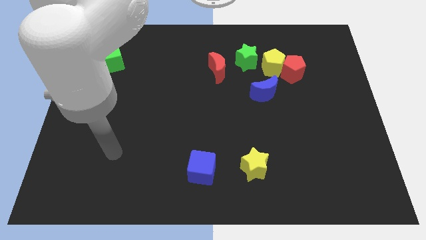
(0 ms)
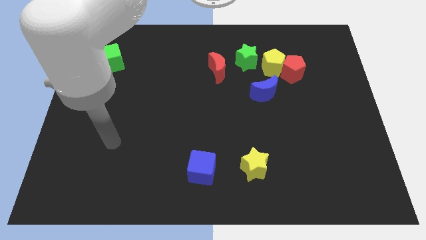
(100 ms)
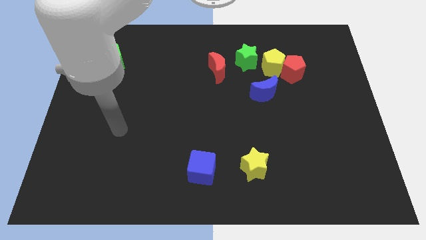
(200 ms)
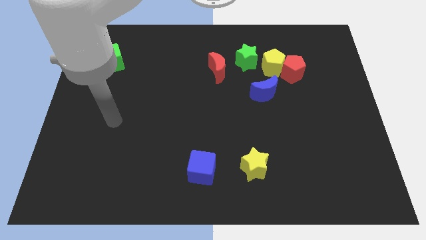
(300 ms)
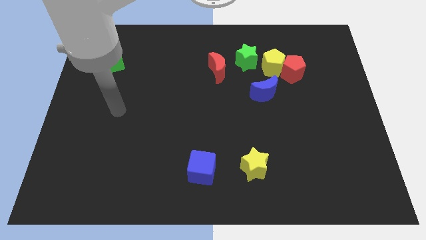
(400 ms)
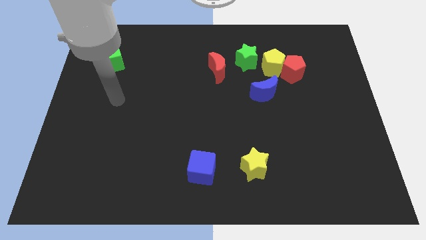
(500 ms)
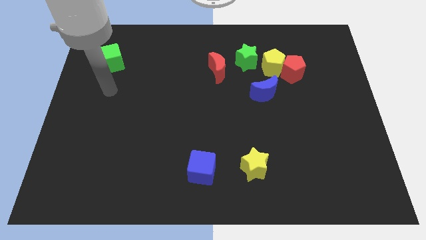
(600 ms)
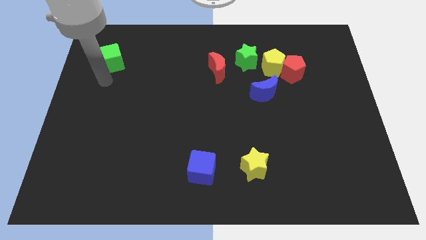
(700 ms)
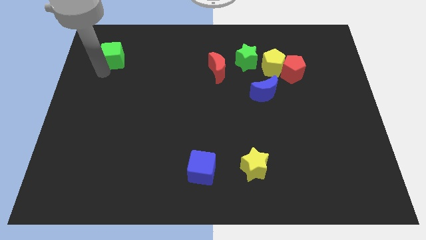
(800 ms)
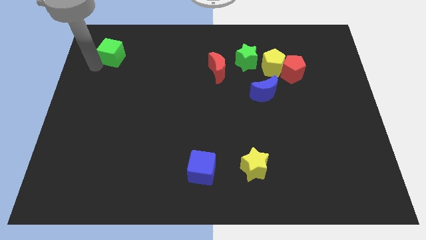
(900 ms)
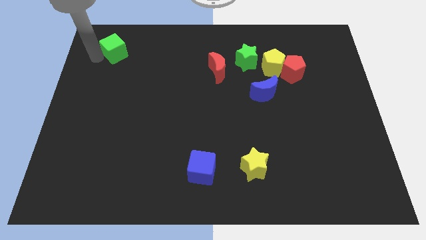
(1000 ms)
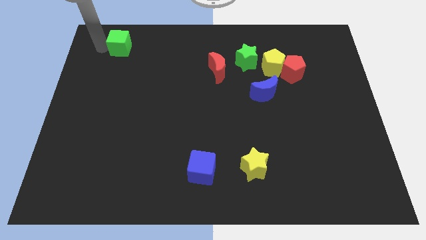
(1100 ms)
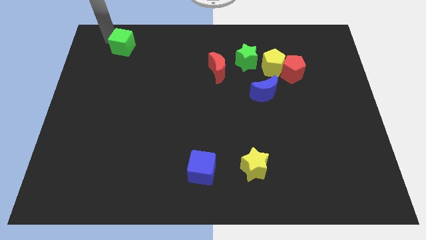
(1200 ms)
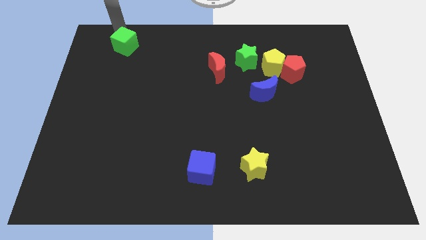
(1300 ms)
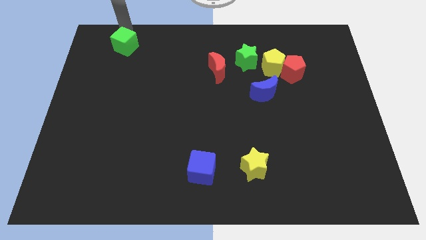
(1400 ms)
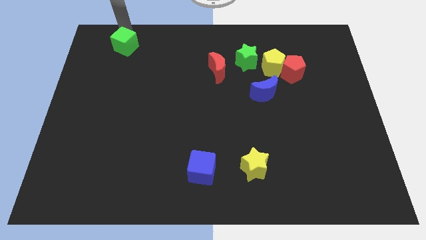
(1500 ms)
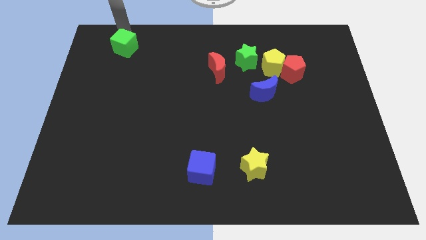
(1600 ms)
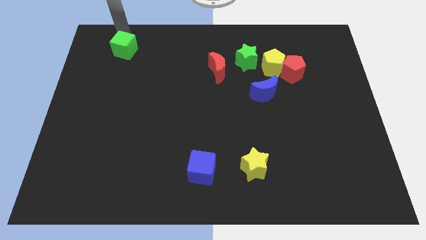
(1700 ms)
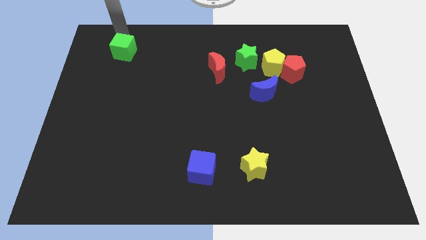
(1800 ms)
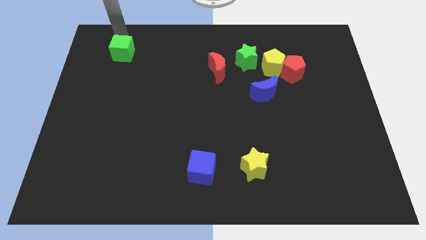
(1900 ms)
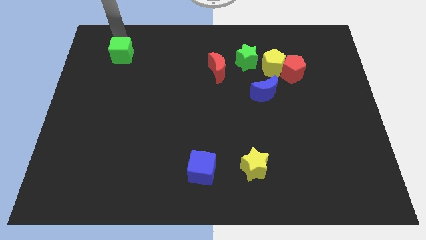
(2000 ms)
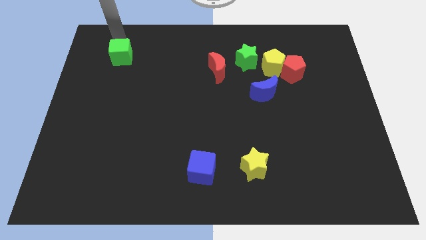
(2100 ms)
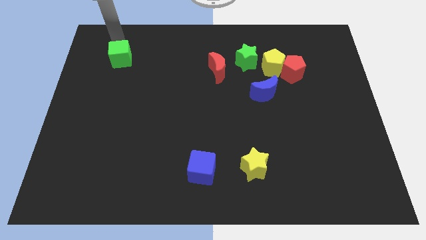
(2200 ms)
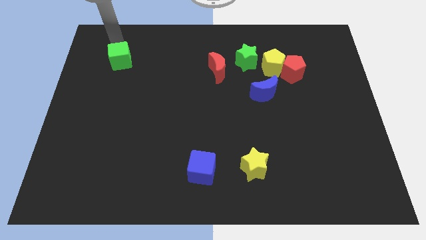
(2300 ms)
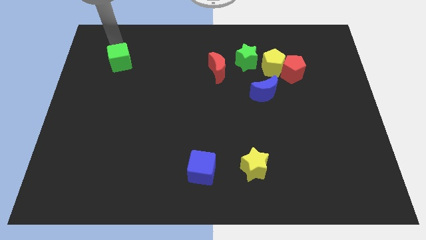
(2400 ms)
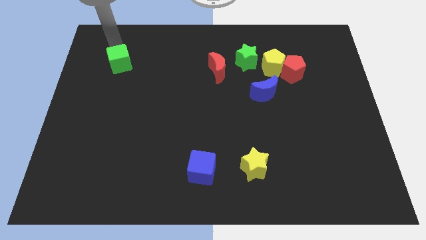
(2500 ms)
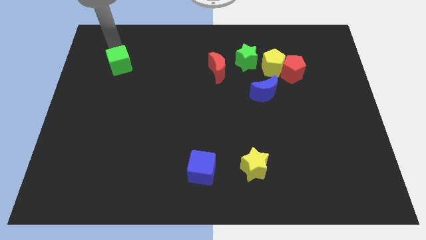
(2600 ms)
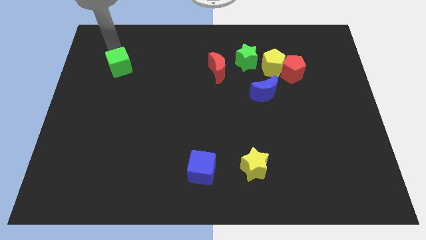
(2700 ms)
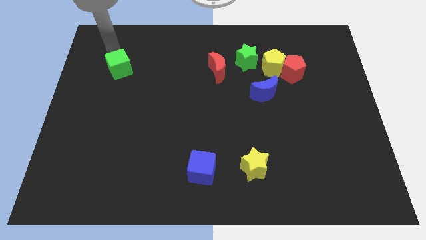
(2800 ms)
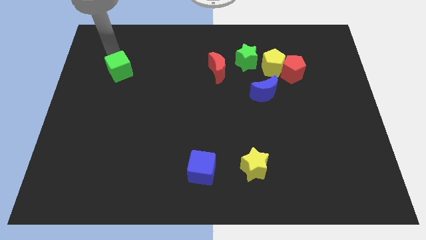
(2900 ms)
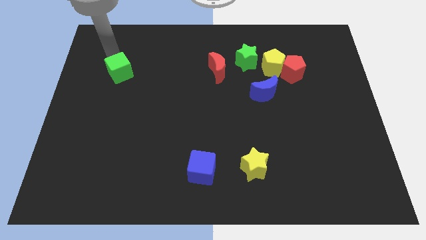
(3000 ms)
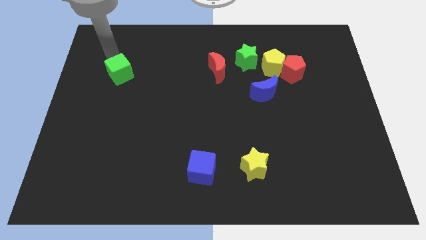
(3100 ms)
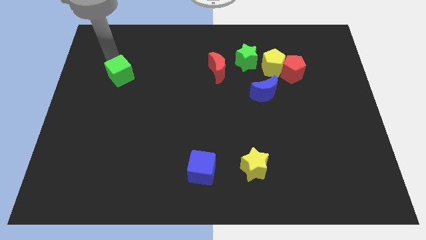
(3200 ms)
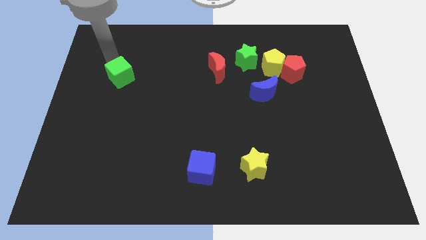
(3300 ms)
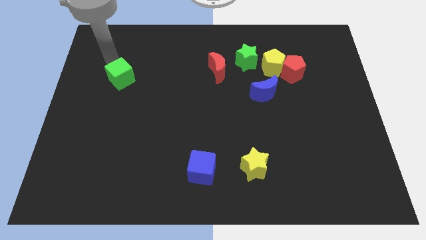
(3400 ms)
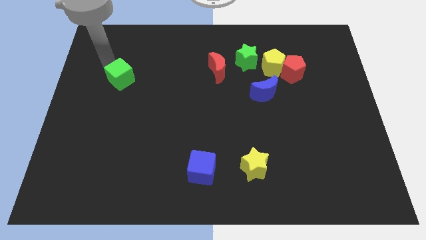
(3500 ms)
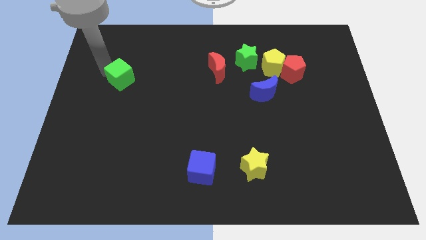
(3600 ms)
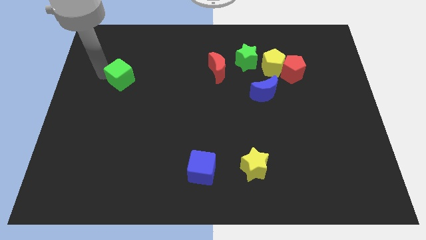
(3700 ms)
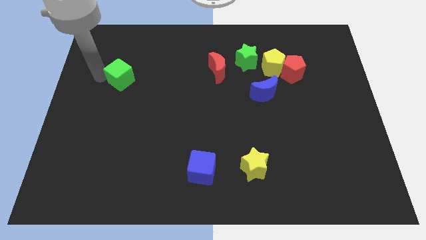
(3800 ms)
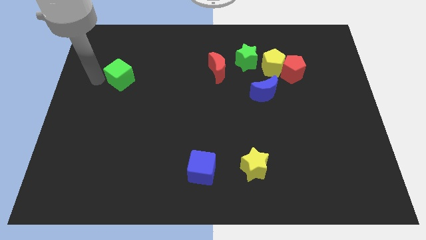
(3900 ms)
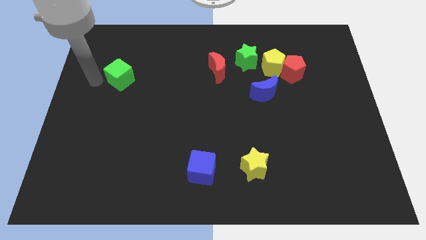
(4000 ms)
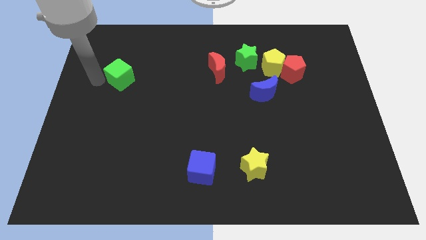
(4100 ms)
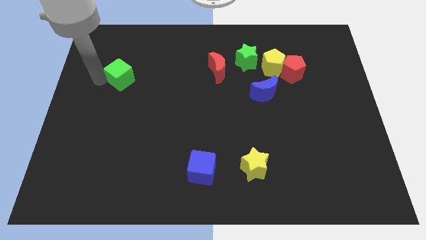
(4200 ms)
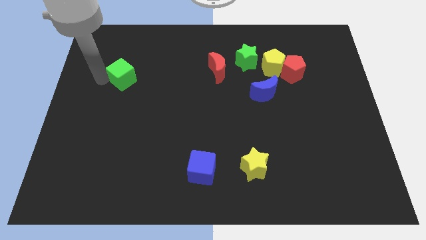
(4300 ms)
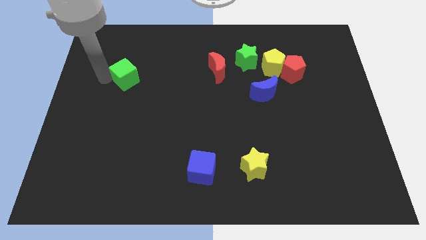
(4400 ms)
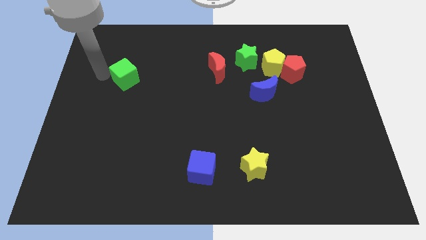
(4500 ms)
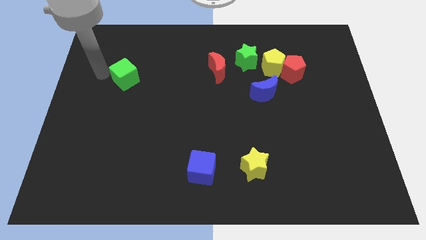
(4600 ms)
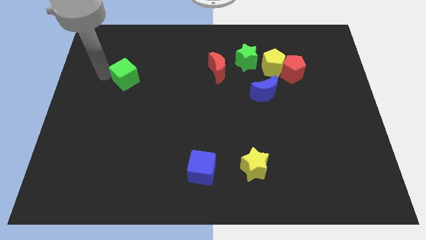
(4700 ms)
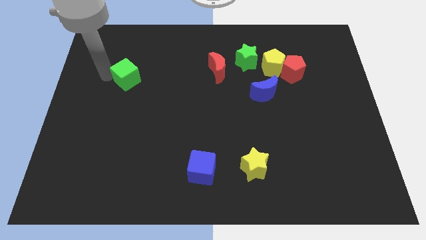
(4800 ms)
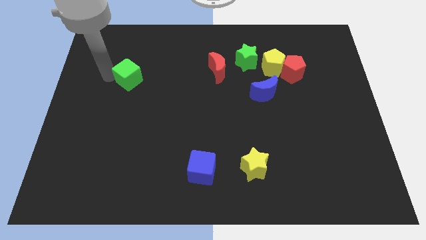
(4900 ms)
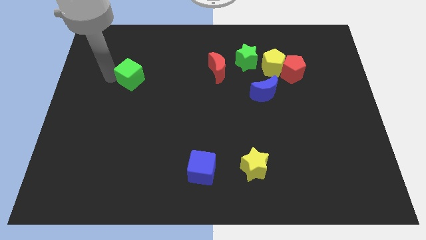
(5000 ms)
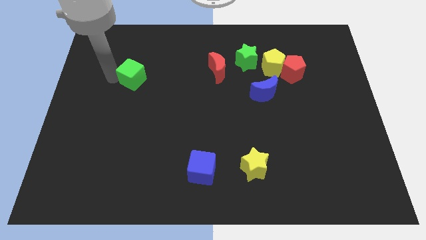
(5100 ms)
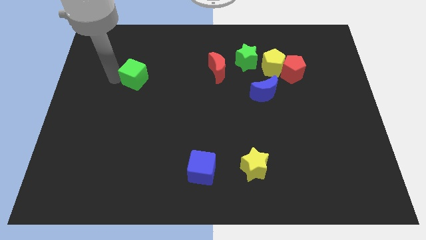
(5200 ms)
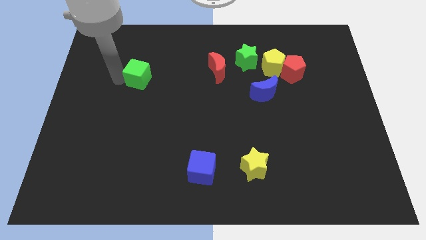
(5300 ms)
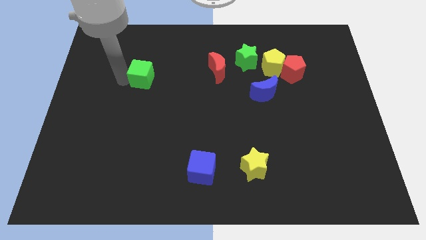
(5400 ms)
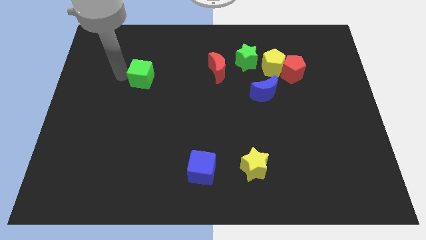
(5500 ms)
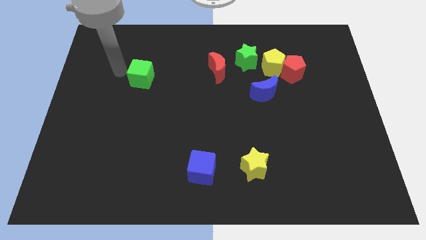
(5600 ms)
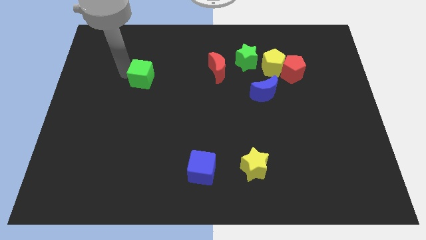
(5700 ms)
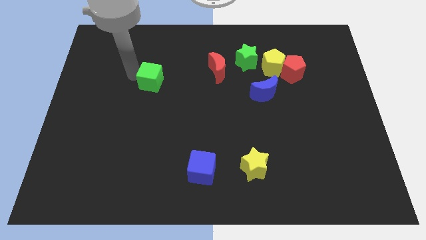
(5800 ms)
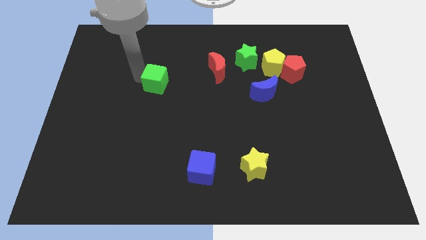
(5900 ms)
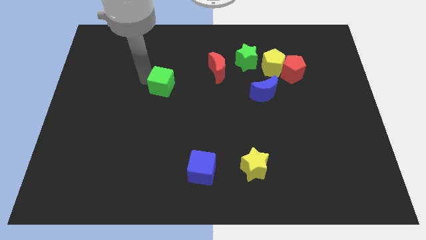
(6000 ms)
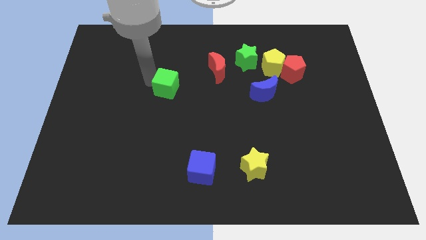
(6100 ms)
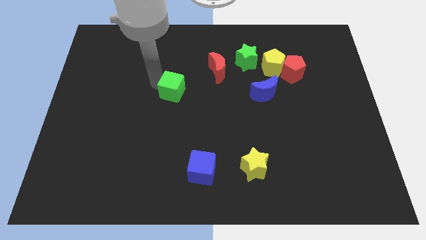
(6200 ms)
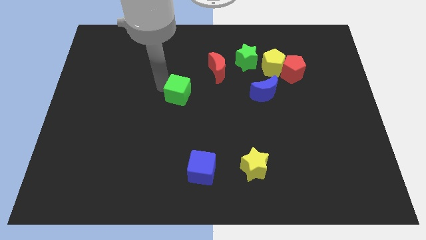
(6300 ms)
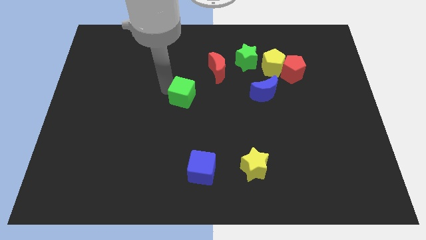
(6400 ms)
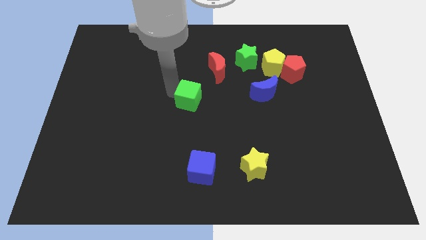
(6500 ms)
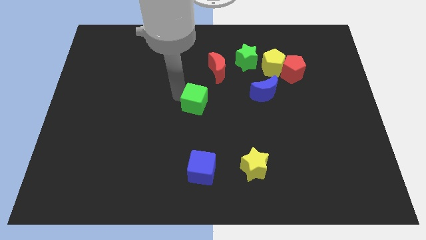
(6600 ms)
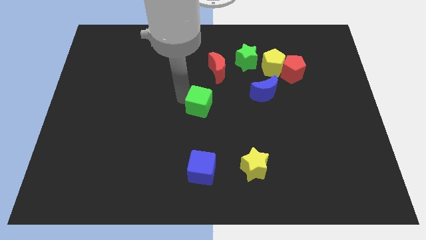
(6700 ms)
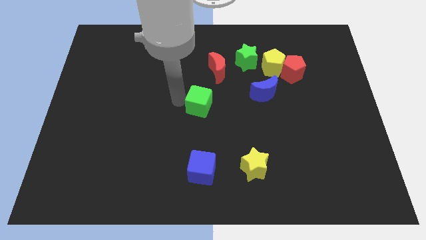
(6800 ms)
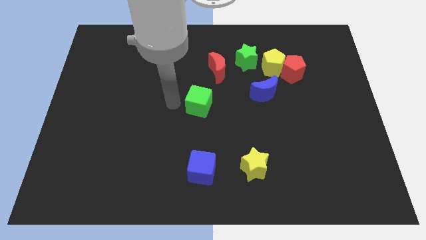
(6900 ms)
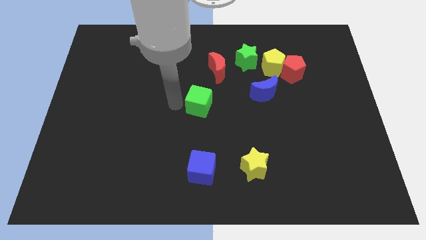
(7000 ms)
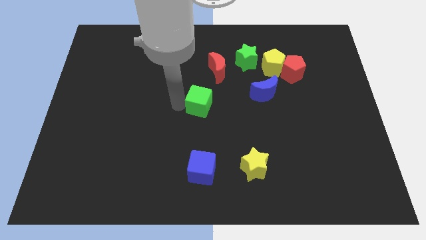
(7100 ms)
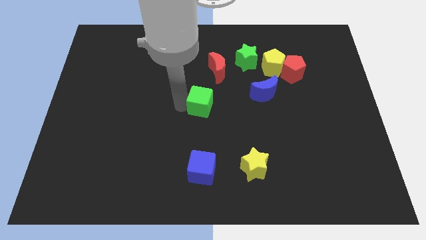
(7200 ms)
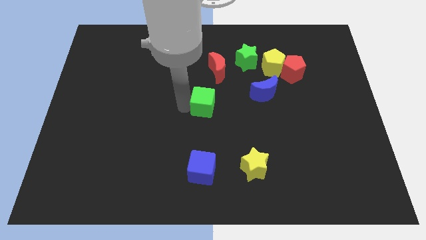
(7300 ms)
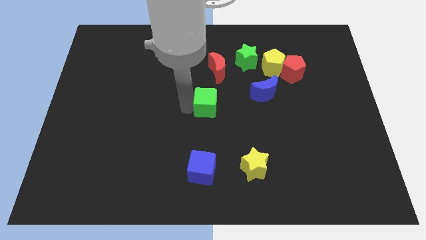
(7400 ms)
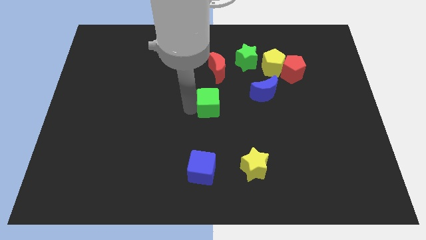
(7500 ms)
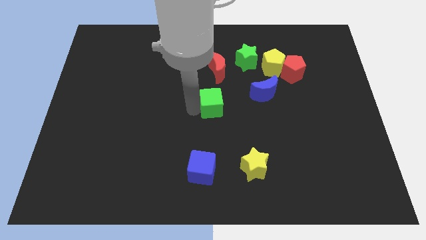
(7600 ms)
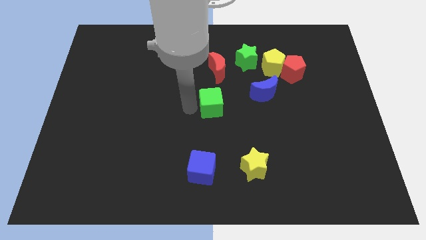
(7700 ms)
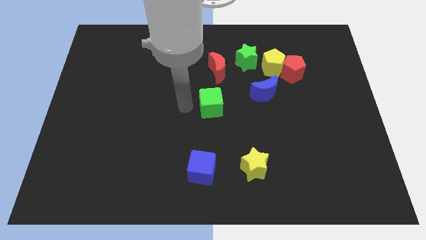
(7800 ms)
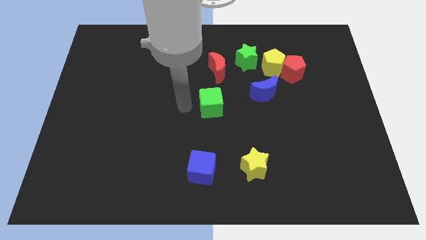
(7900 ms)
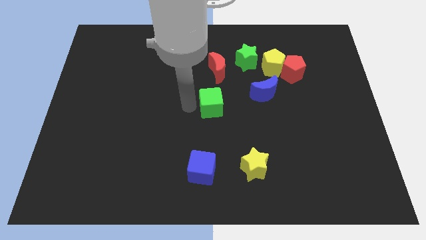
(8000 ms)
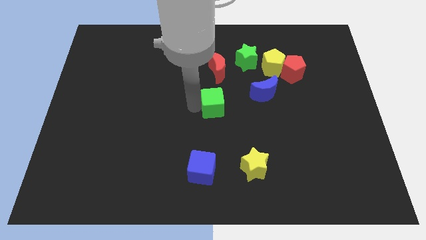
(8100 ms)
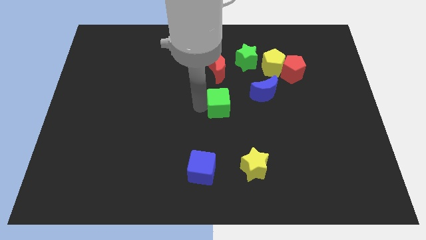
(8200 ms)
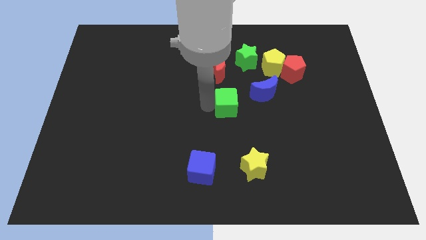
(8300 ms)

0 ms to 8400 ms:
slide the green cube to the bottom left side of the blue moon
